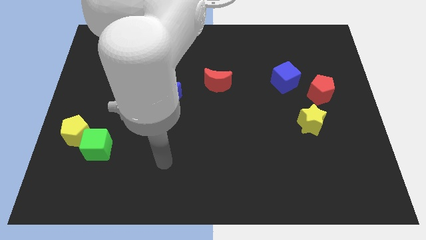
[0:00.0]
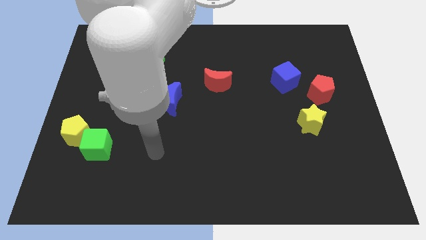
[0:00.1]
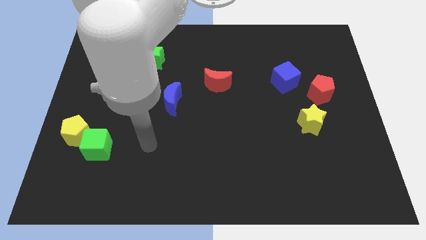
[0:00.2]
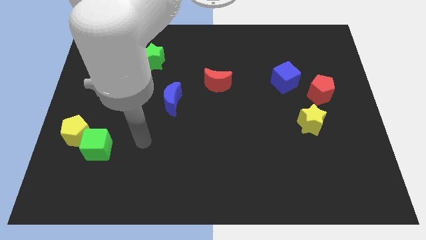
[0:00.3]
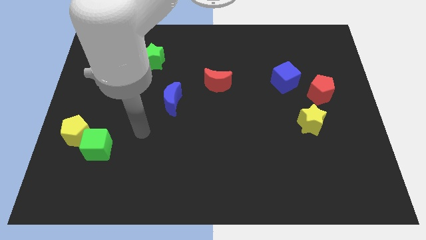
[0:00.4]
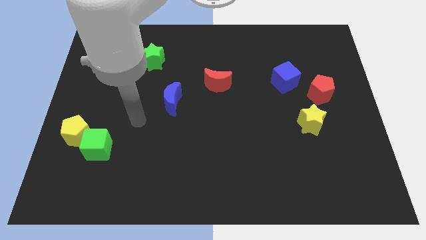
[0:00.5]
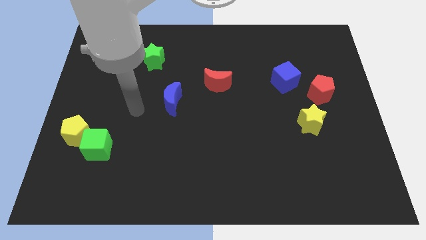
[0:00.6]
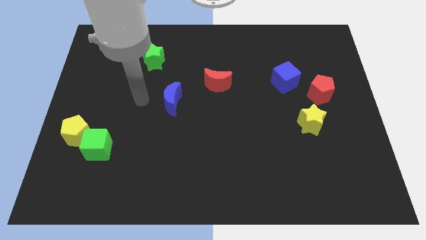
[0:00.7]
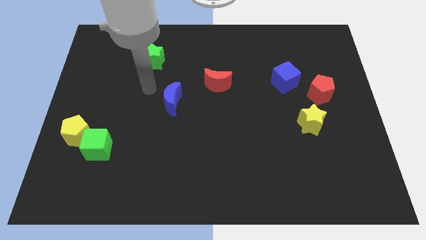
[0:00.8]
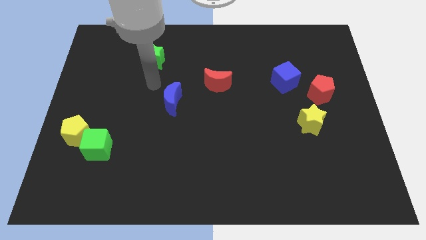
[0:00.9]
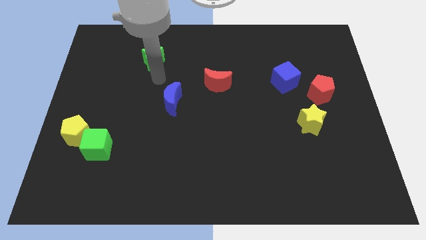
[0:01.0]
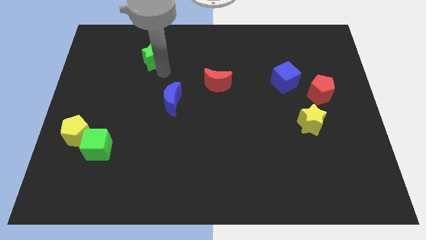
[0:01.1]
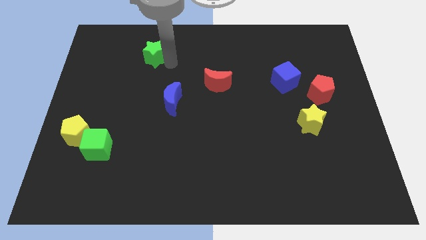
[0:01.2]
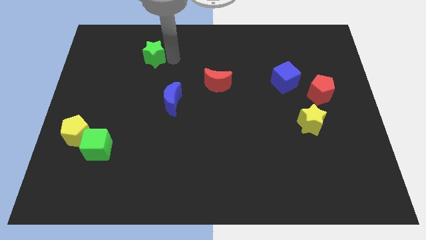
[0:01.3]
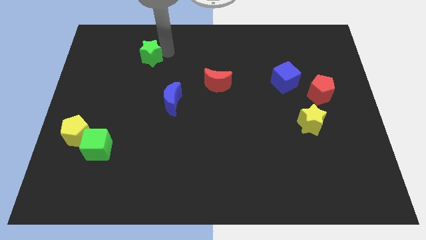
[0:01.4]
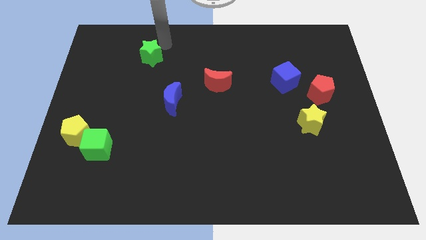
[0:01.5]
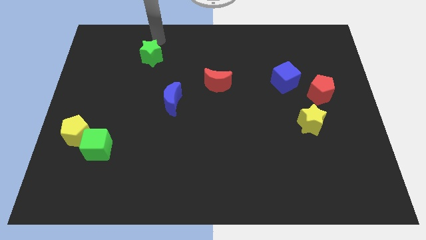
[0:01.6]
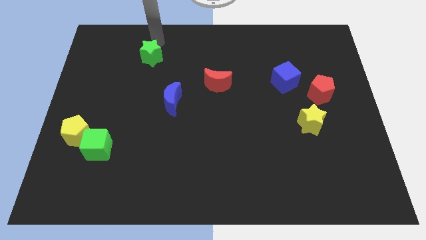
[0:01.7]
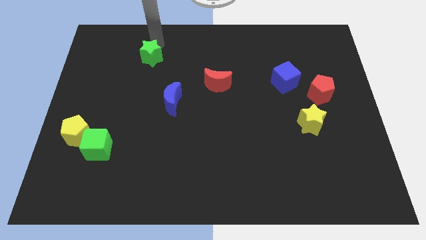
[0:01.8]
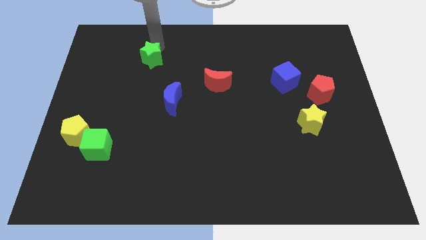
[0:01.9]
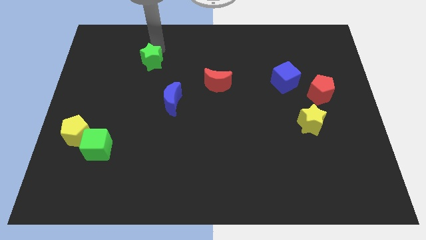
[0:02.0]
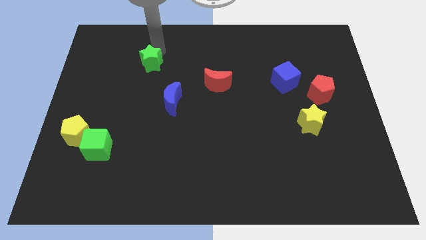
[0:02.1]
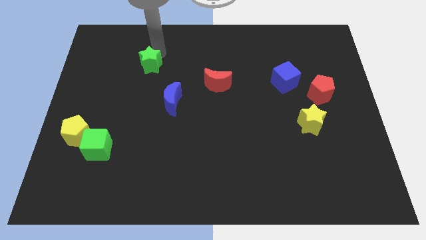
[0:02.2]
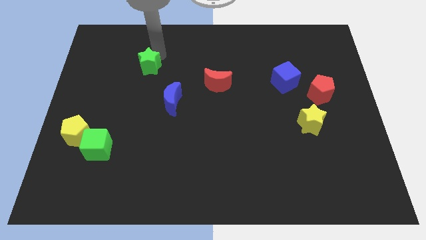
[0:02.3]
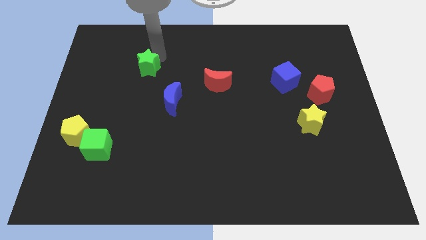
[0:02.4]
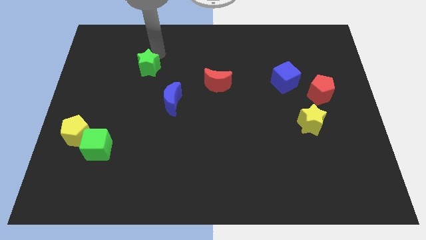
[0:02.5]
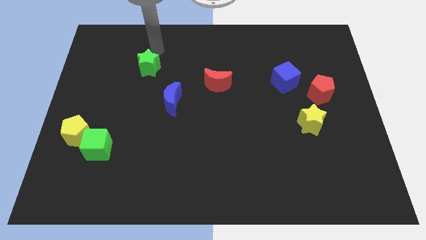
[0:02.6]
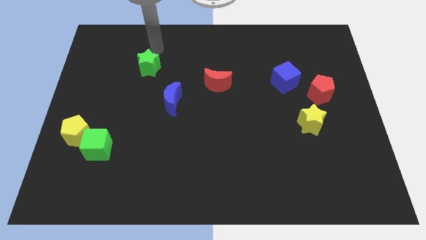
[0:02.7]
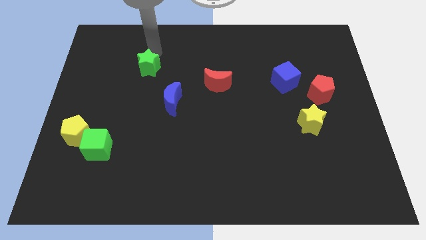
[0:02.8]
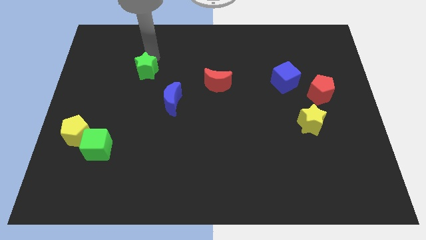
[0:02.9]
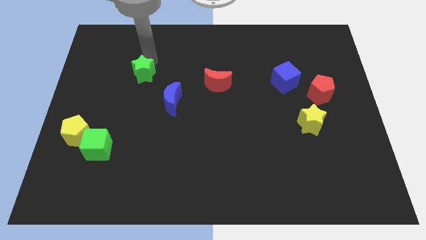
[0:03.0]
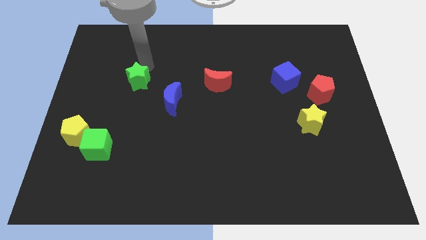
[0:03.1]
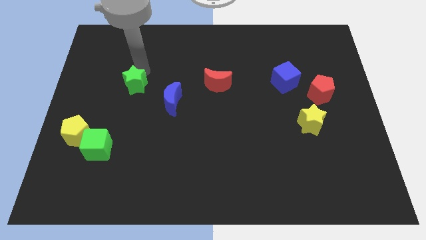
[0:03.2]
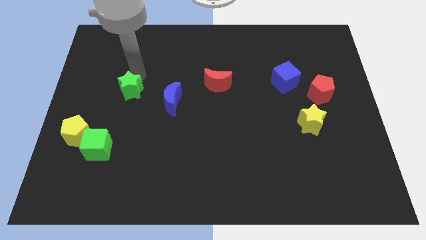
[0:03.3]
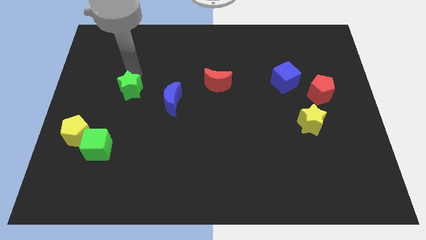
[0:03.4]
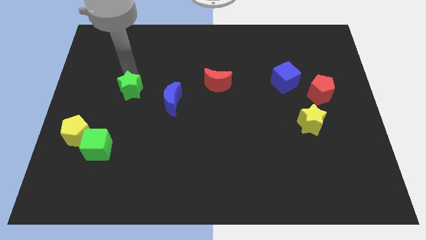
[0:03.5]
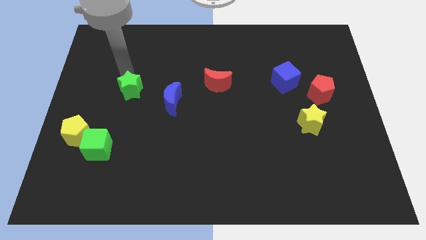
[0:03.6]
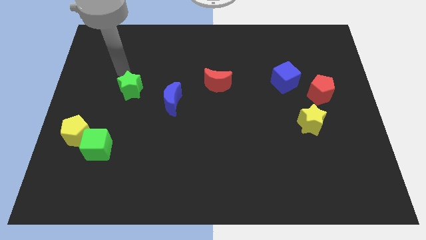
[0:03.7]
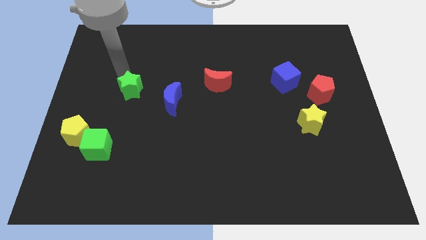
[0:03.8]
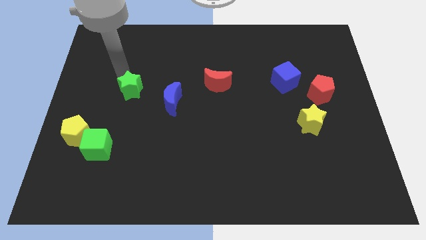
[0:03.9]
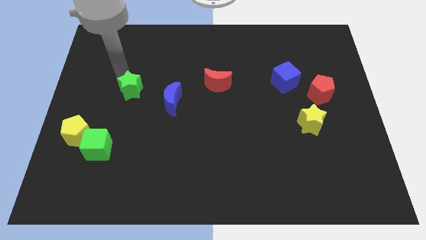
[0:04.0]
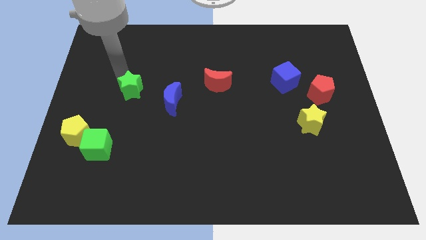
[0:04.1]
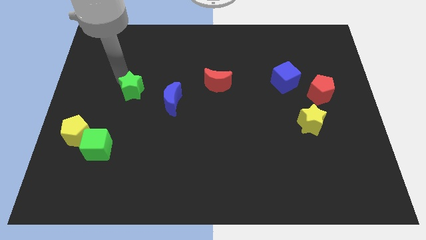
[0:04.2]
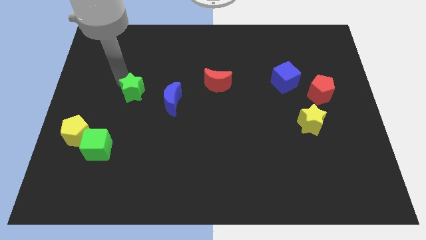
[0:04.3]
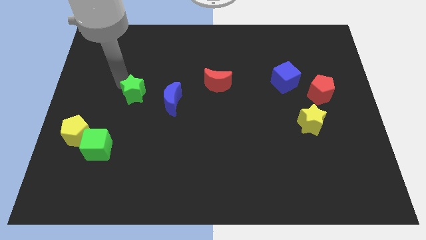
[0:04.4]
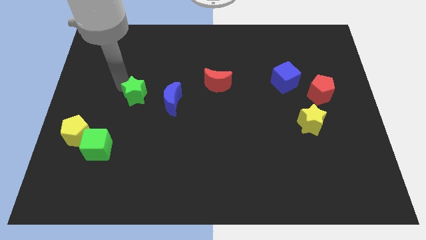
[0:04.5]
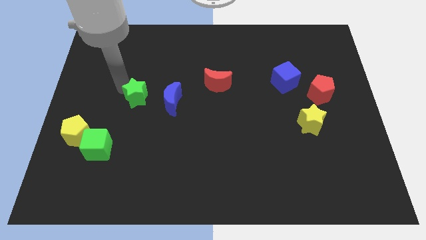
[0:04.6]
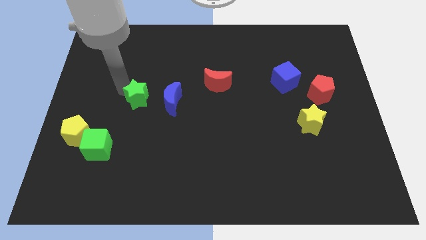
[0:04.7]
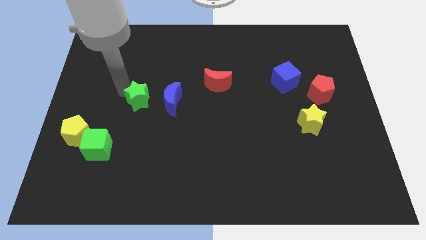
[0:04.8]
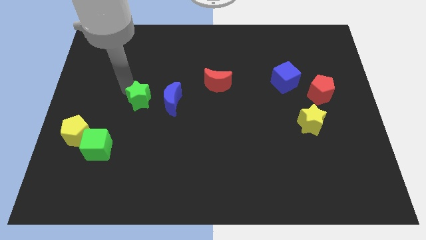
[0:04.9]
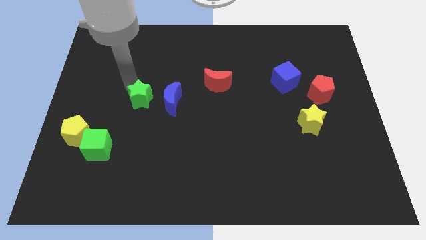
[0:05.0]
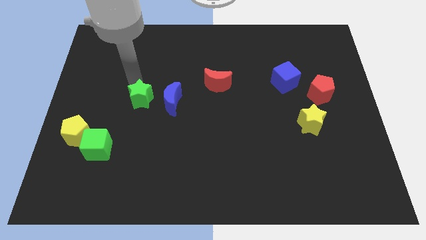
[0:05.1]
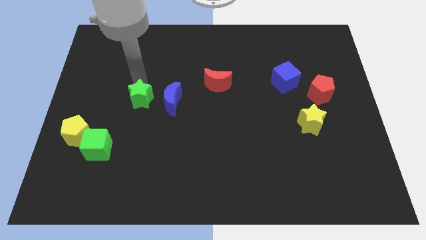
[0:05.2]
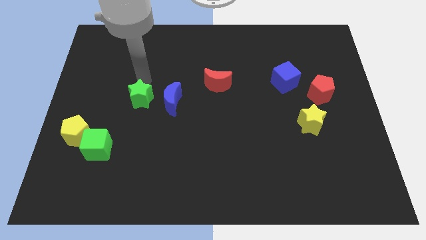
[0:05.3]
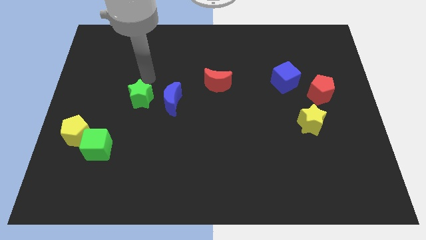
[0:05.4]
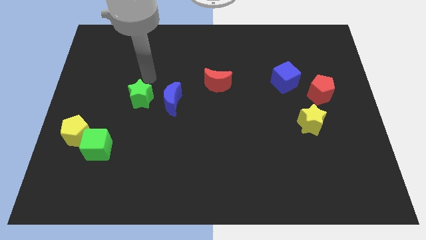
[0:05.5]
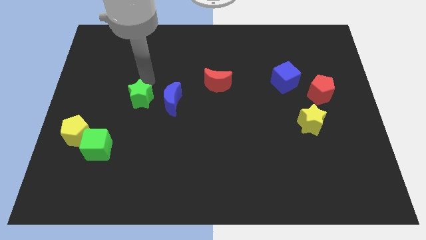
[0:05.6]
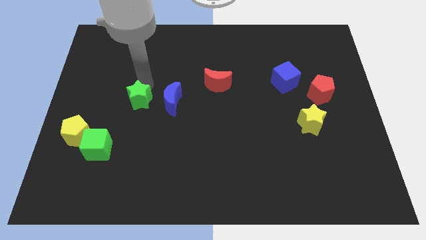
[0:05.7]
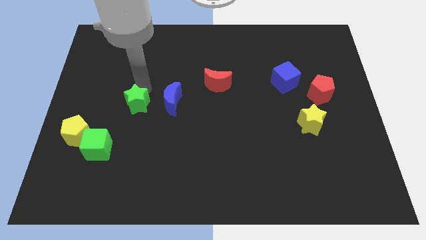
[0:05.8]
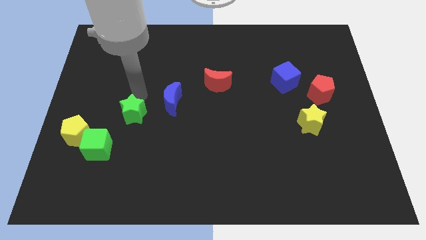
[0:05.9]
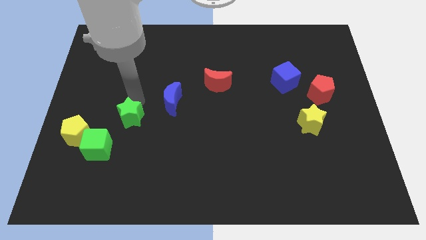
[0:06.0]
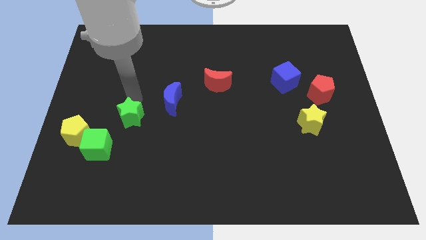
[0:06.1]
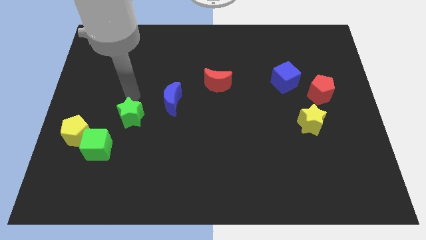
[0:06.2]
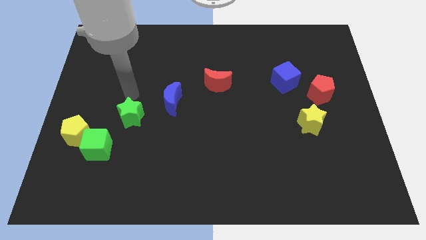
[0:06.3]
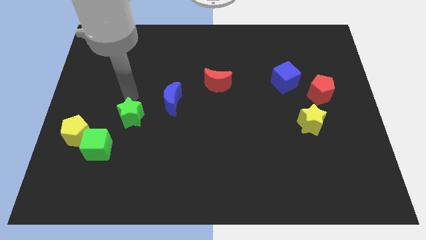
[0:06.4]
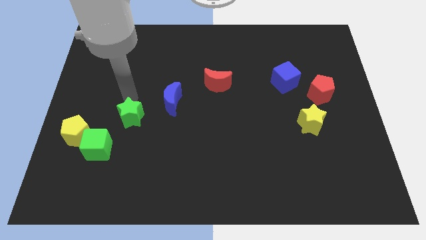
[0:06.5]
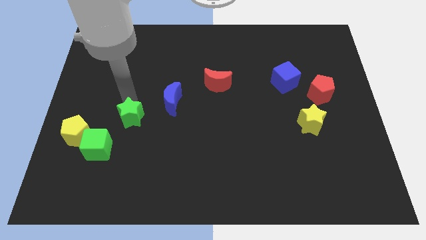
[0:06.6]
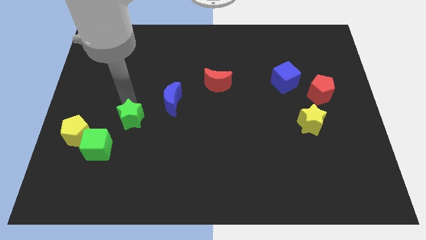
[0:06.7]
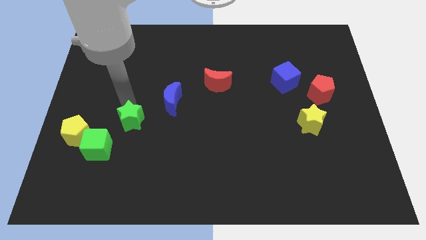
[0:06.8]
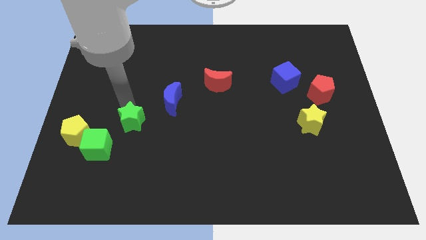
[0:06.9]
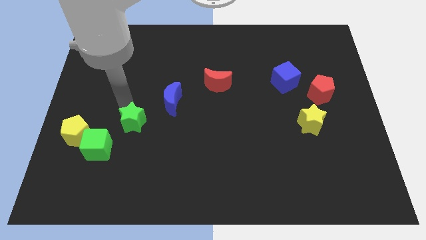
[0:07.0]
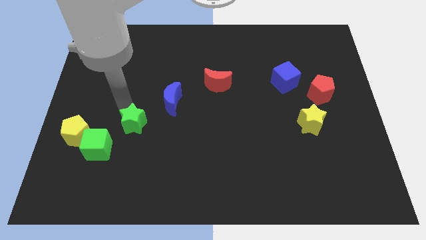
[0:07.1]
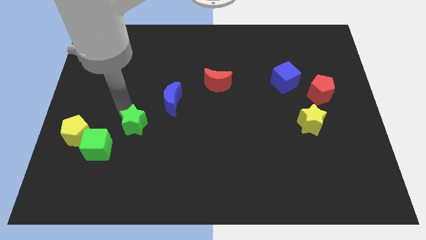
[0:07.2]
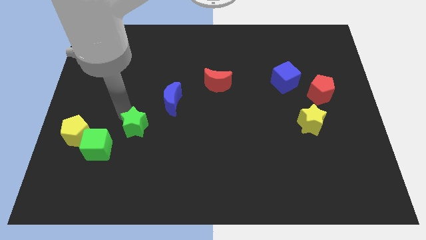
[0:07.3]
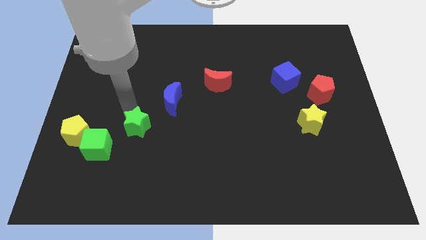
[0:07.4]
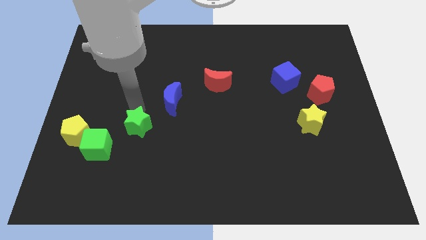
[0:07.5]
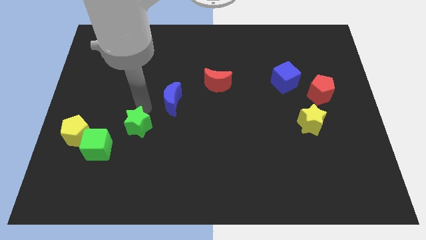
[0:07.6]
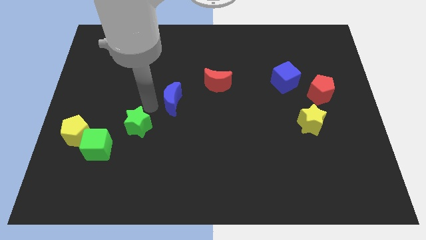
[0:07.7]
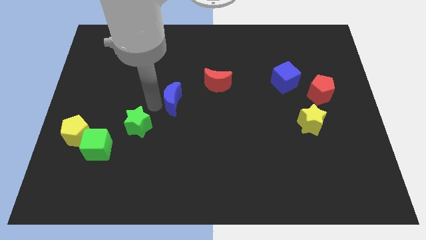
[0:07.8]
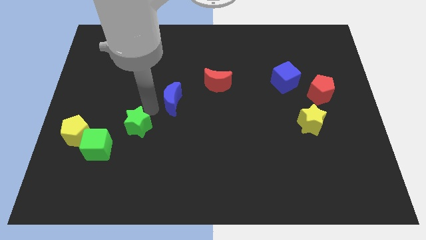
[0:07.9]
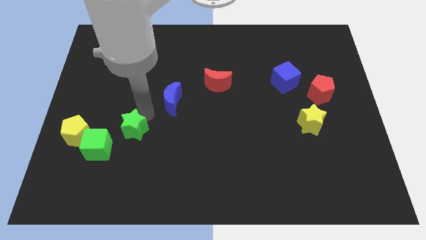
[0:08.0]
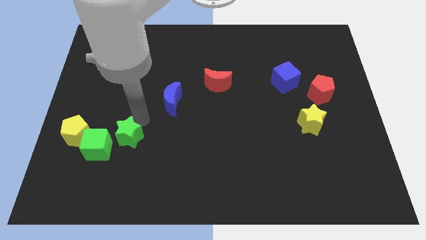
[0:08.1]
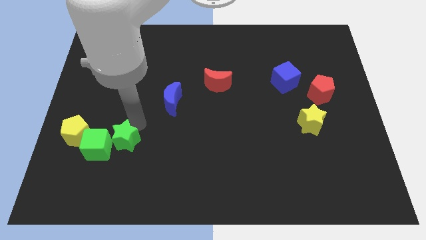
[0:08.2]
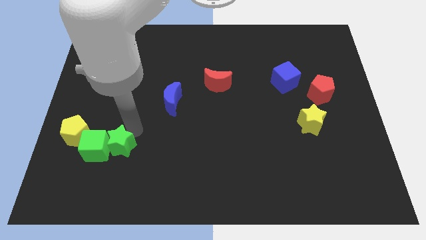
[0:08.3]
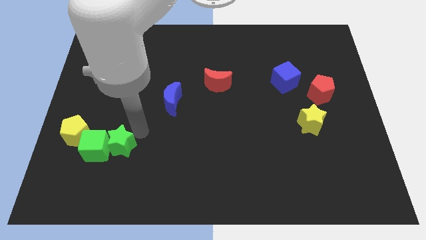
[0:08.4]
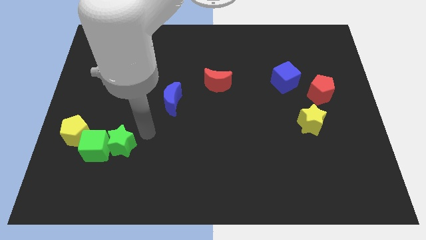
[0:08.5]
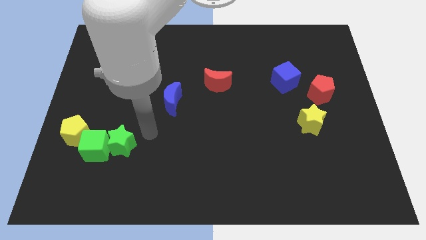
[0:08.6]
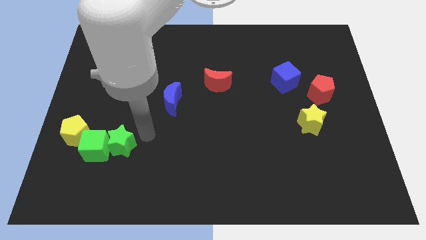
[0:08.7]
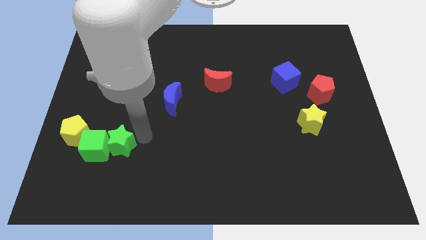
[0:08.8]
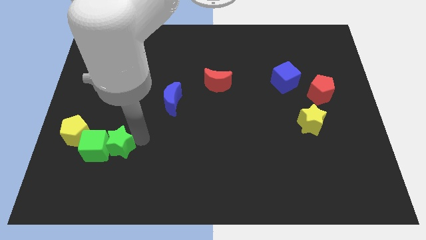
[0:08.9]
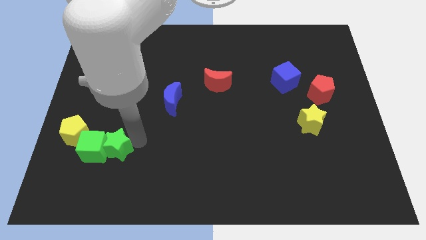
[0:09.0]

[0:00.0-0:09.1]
slide the green star diagonally down and to the right of the yellow pentagon
